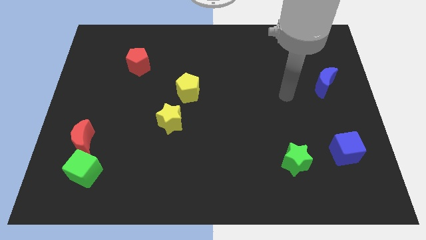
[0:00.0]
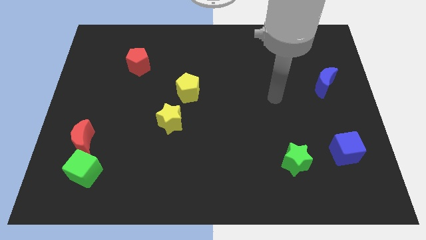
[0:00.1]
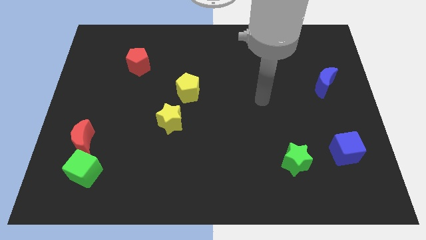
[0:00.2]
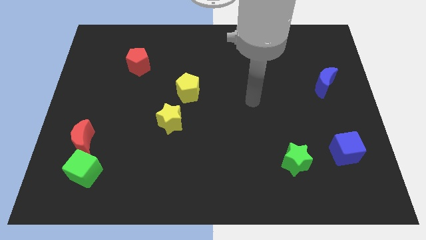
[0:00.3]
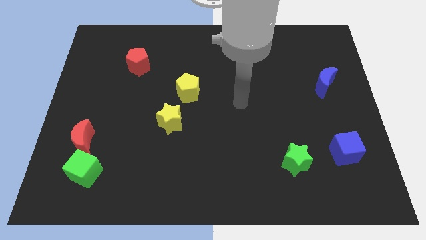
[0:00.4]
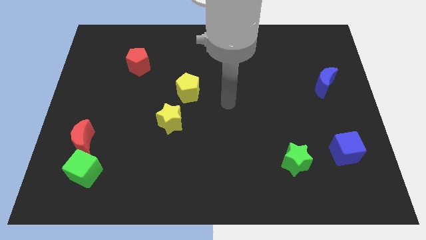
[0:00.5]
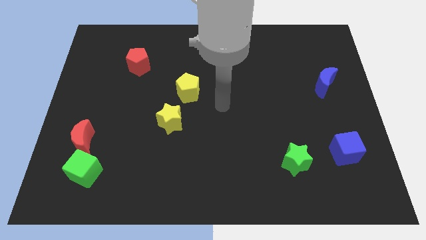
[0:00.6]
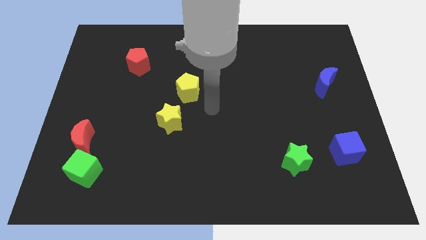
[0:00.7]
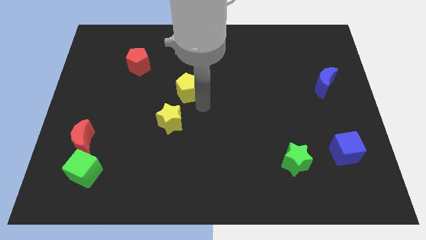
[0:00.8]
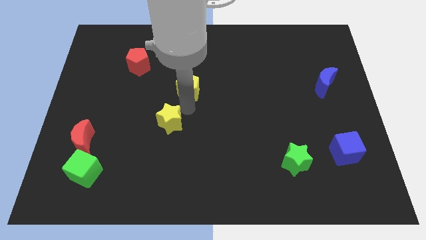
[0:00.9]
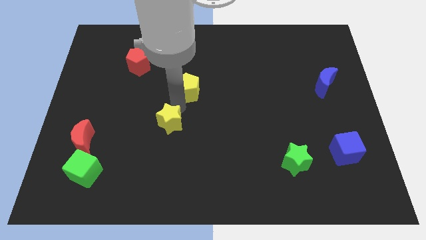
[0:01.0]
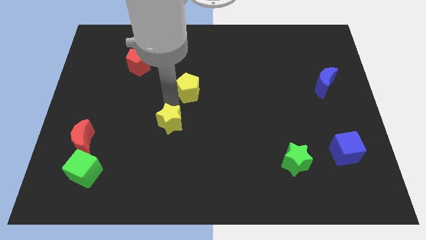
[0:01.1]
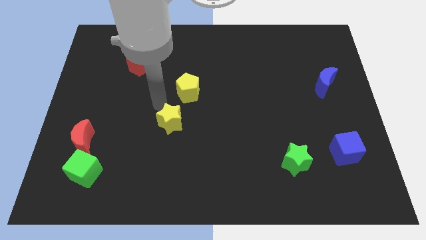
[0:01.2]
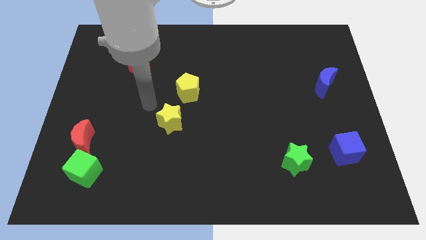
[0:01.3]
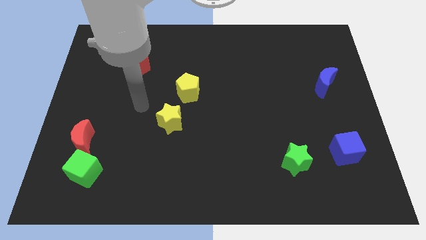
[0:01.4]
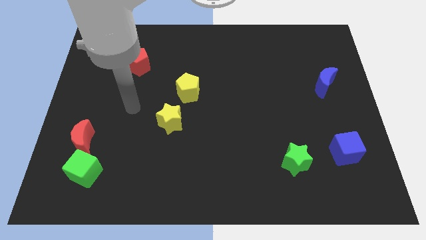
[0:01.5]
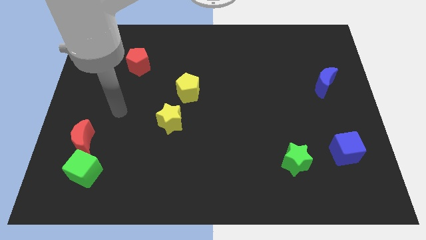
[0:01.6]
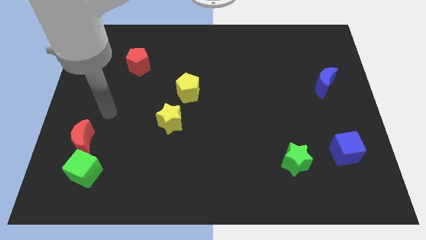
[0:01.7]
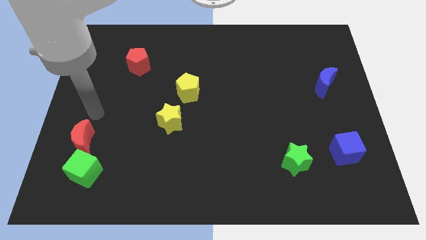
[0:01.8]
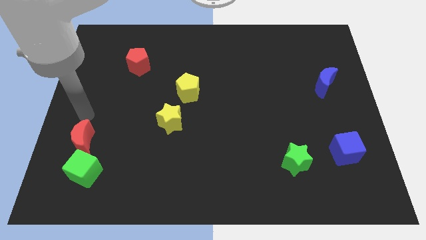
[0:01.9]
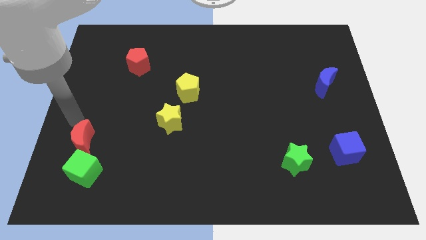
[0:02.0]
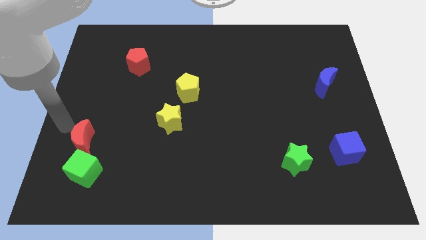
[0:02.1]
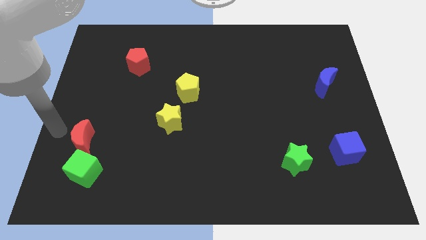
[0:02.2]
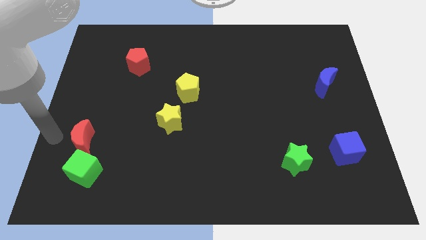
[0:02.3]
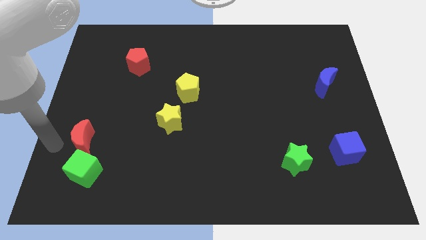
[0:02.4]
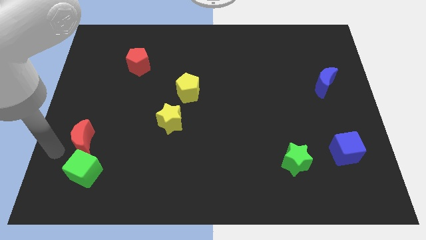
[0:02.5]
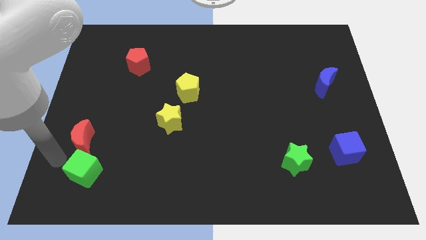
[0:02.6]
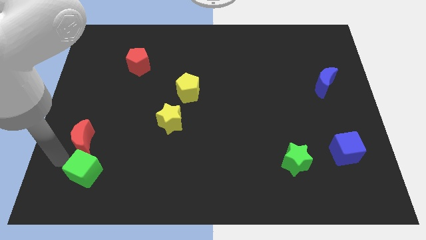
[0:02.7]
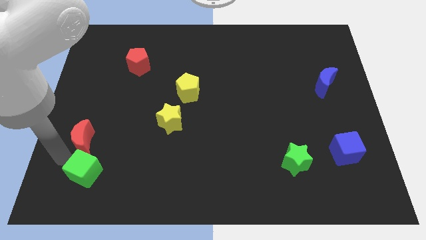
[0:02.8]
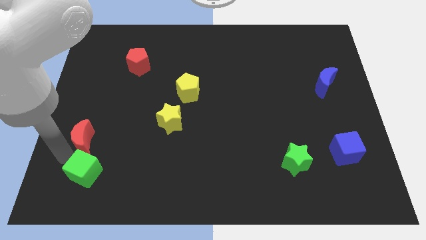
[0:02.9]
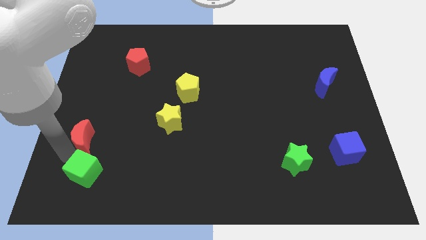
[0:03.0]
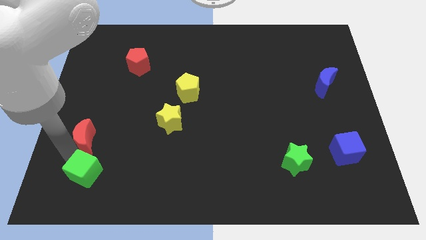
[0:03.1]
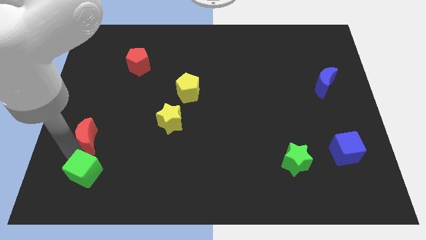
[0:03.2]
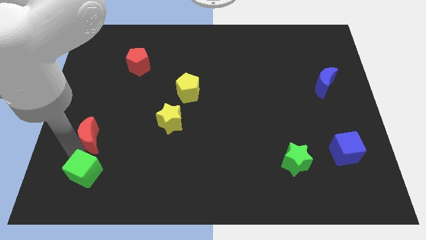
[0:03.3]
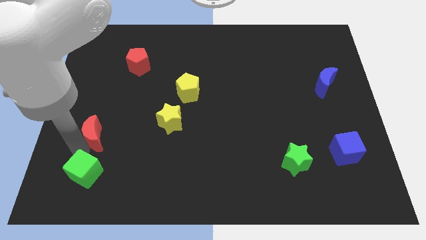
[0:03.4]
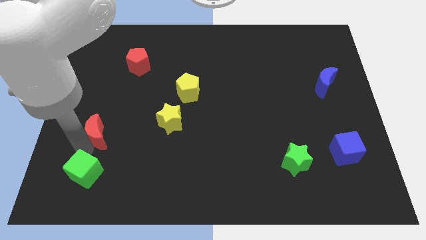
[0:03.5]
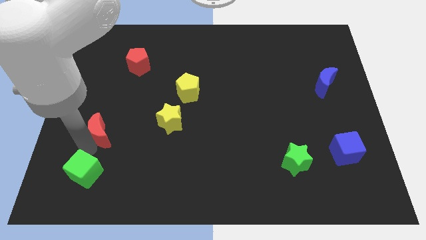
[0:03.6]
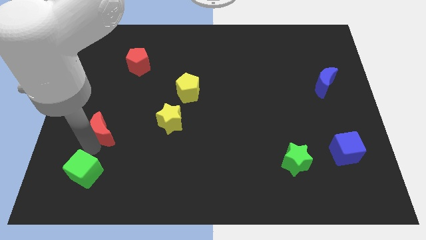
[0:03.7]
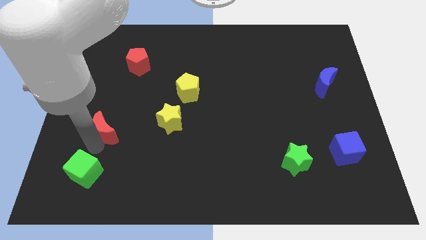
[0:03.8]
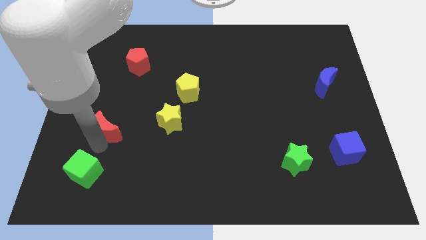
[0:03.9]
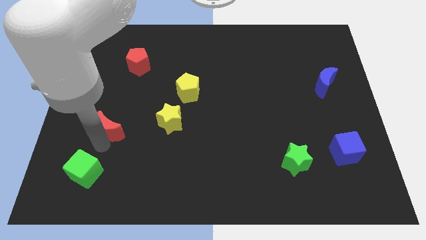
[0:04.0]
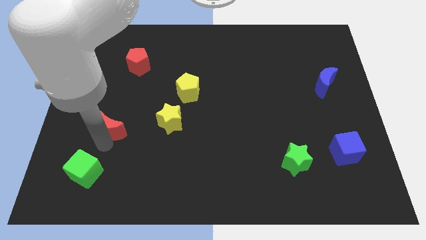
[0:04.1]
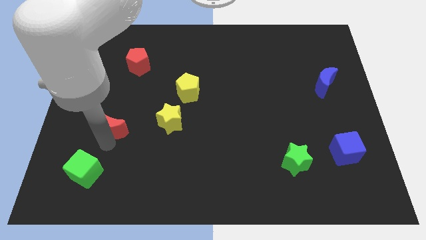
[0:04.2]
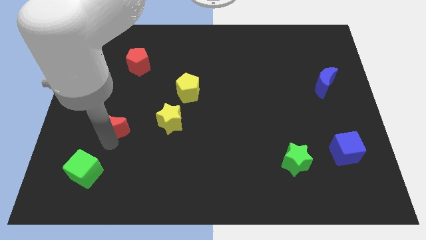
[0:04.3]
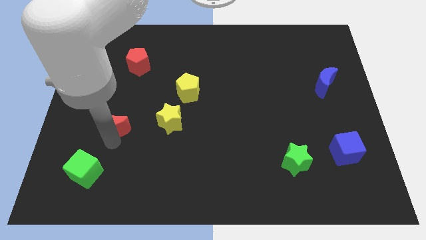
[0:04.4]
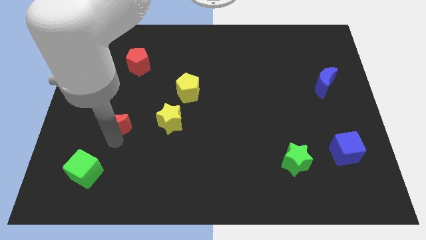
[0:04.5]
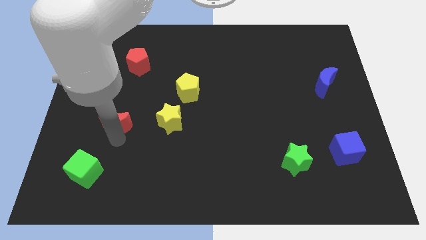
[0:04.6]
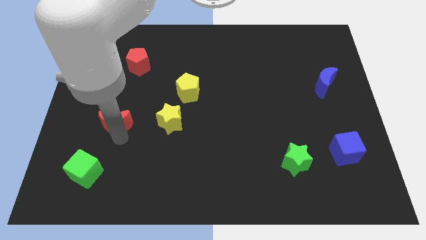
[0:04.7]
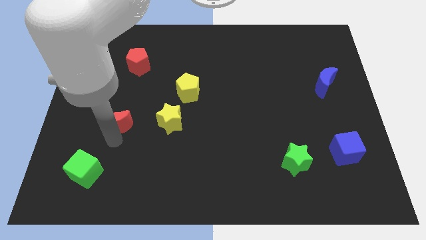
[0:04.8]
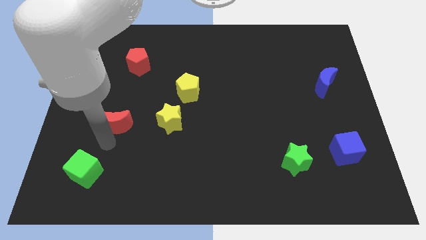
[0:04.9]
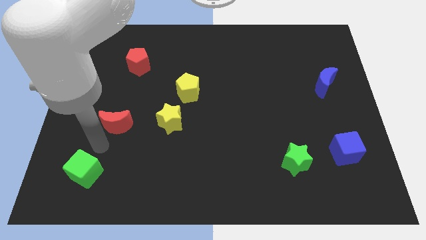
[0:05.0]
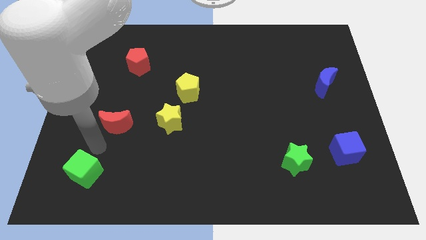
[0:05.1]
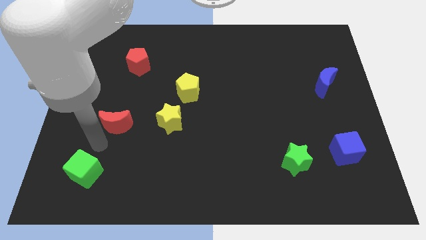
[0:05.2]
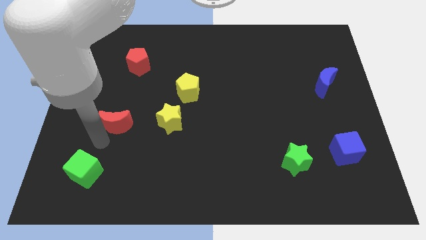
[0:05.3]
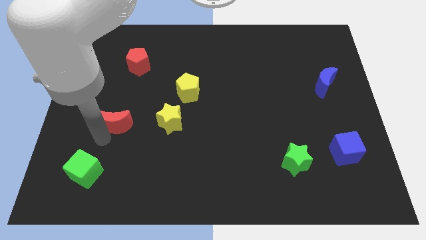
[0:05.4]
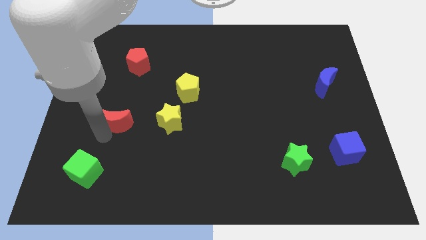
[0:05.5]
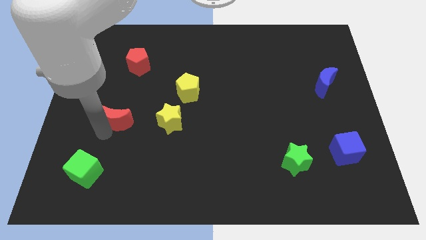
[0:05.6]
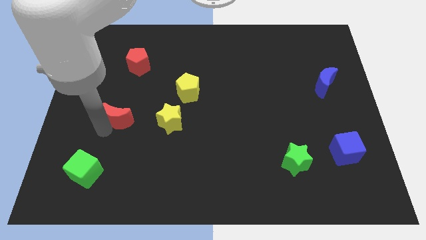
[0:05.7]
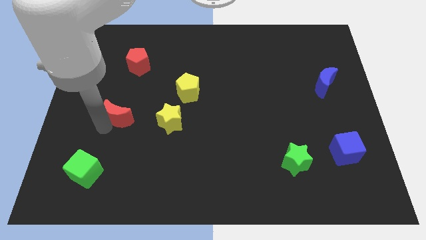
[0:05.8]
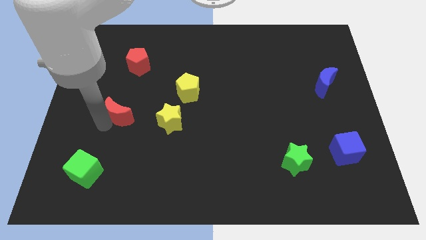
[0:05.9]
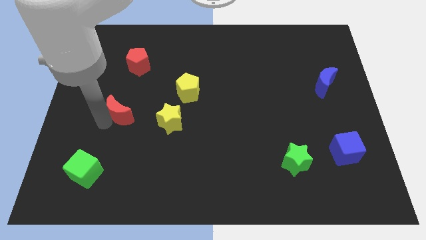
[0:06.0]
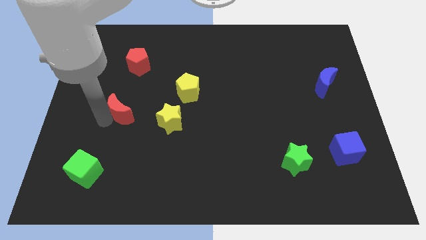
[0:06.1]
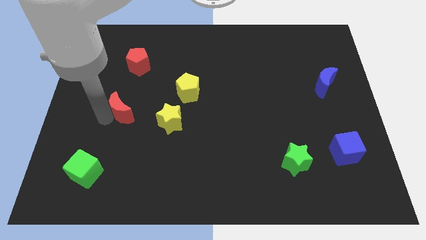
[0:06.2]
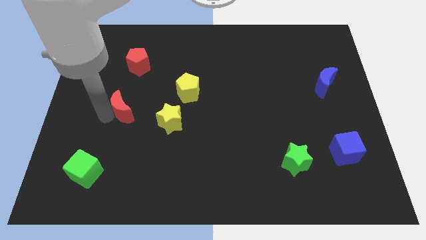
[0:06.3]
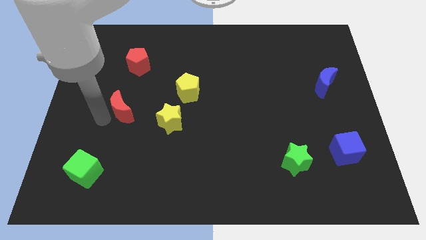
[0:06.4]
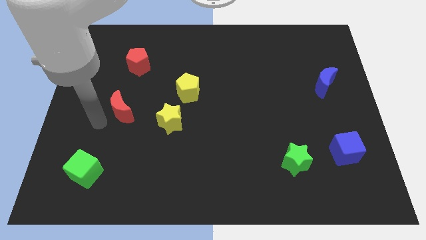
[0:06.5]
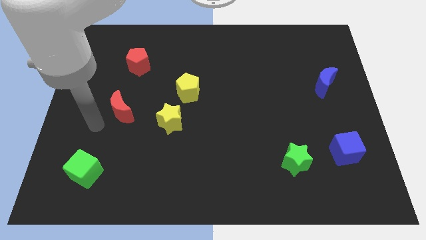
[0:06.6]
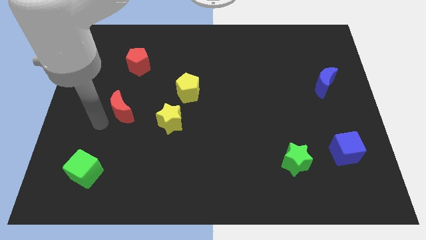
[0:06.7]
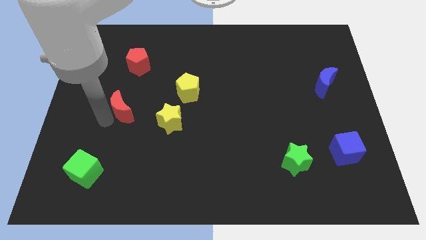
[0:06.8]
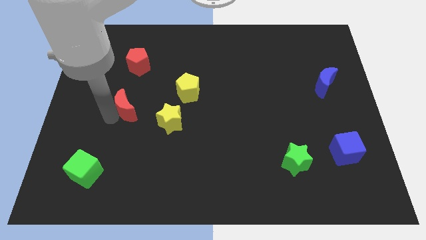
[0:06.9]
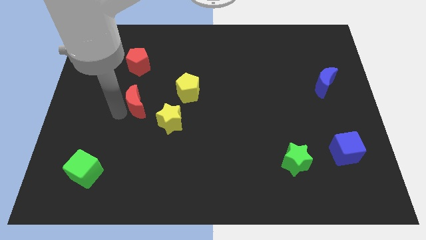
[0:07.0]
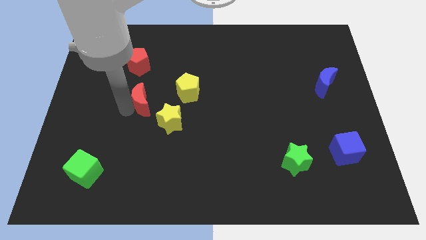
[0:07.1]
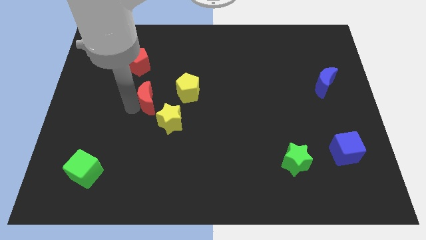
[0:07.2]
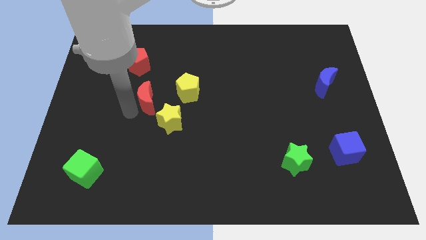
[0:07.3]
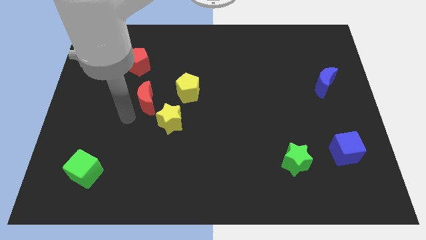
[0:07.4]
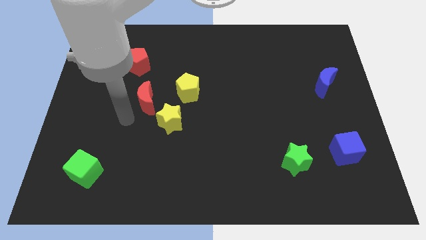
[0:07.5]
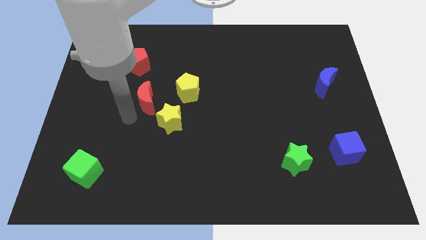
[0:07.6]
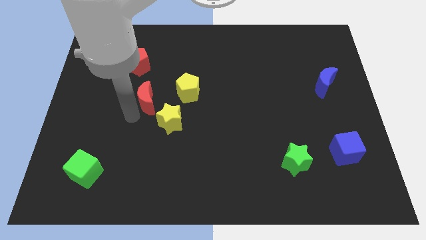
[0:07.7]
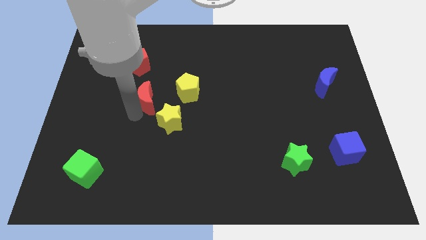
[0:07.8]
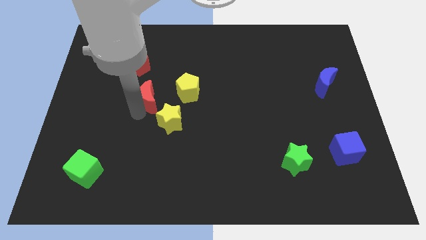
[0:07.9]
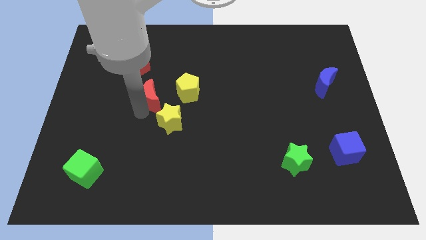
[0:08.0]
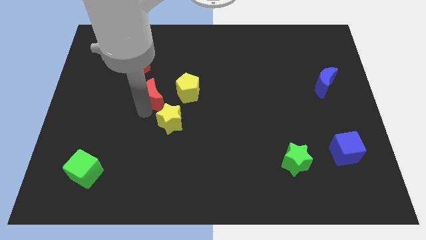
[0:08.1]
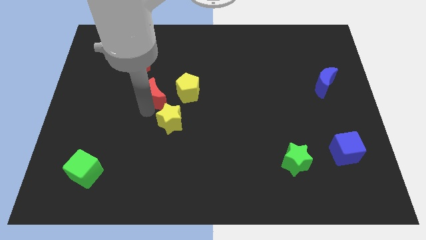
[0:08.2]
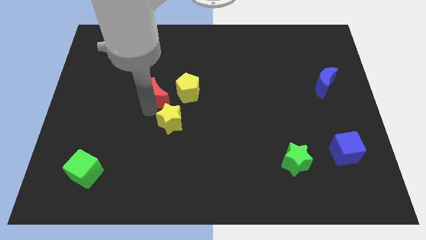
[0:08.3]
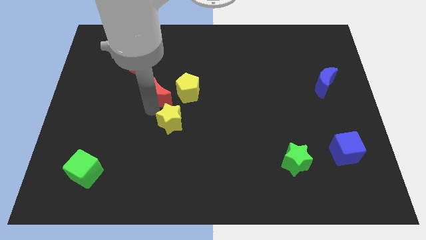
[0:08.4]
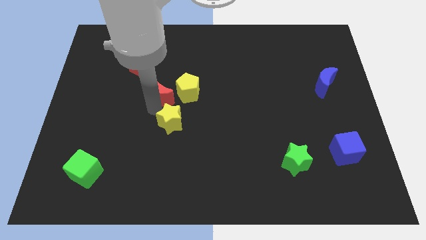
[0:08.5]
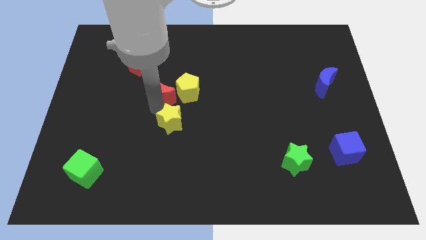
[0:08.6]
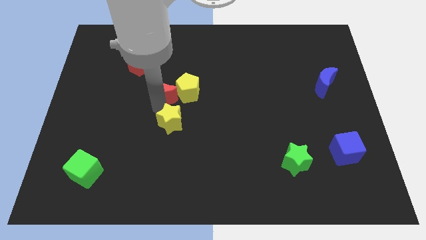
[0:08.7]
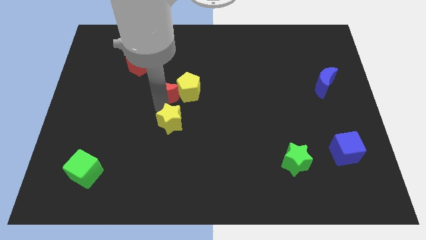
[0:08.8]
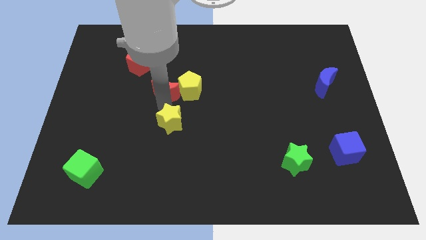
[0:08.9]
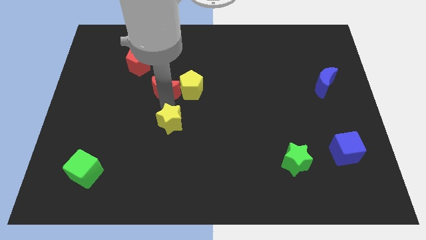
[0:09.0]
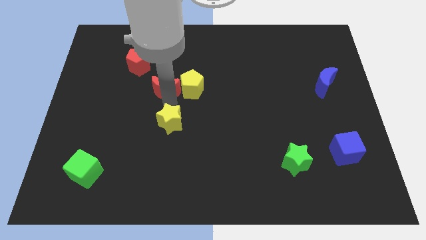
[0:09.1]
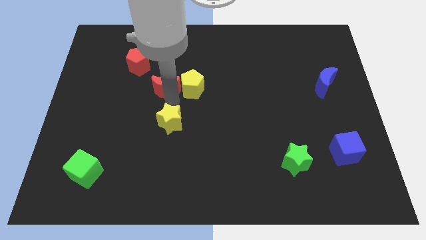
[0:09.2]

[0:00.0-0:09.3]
push the red moon diagonally up and to the left of the yellow pentagon
